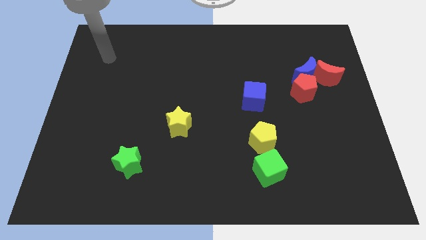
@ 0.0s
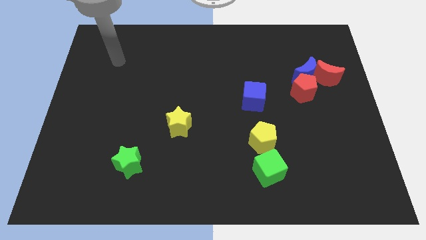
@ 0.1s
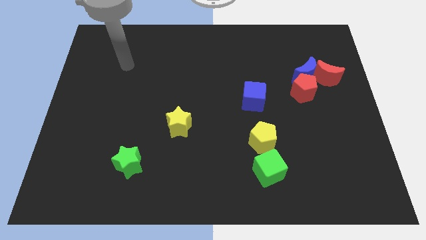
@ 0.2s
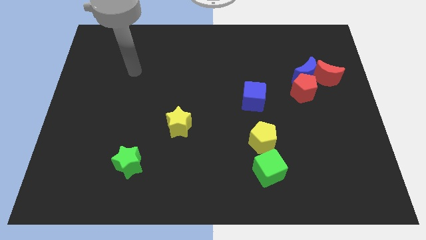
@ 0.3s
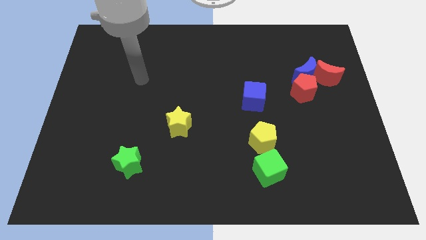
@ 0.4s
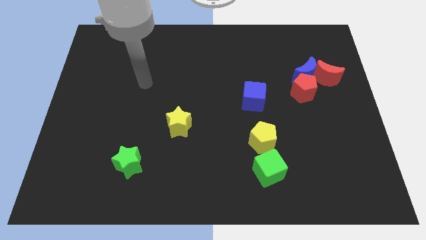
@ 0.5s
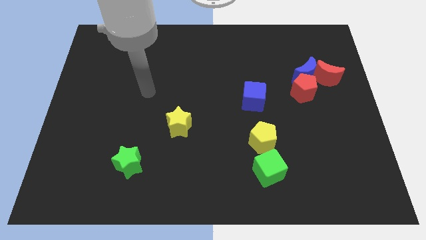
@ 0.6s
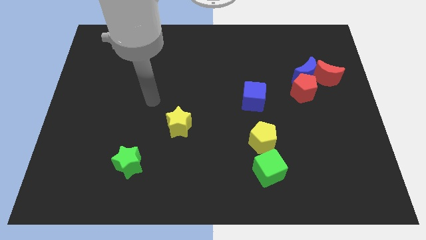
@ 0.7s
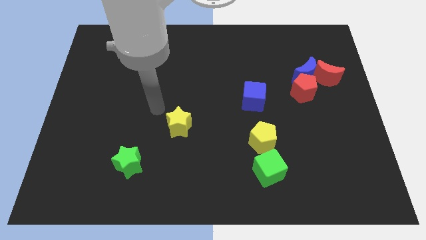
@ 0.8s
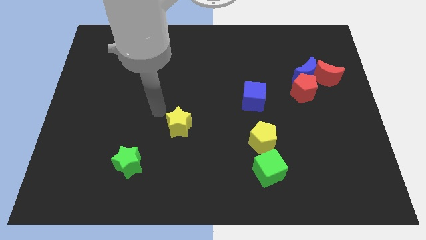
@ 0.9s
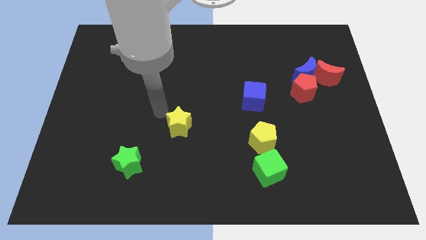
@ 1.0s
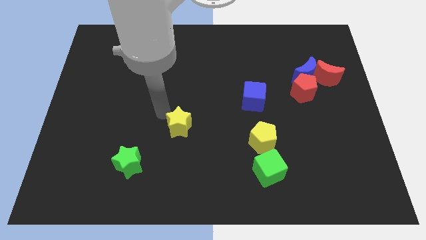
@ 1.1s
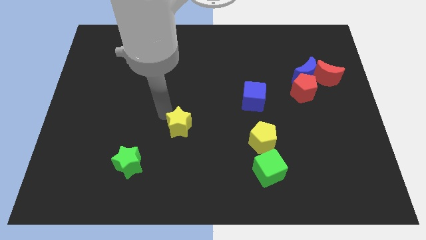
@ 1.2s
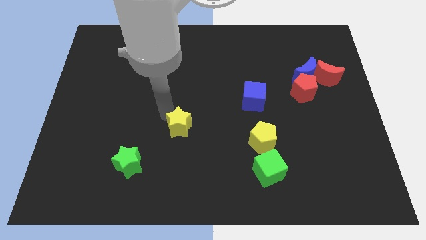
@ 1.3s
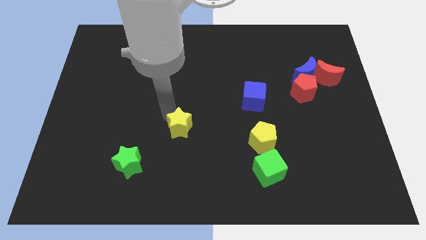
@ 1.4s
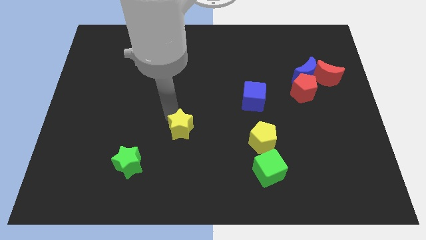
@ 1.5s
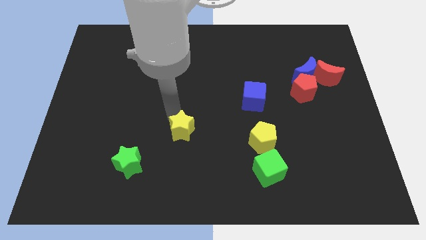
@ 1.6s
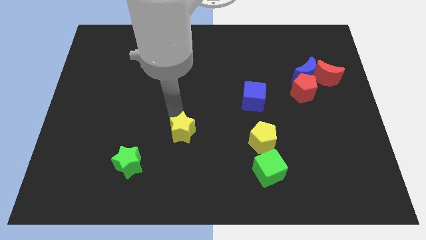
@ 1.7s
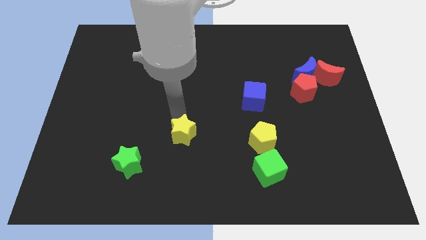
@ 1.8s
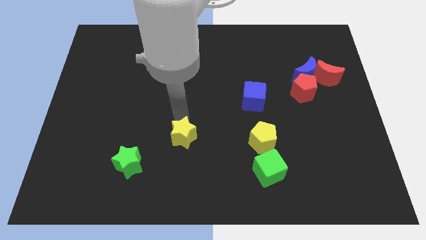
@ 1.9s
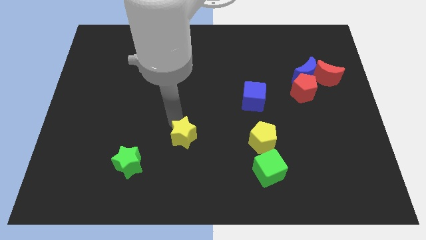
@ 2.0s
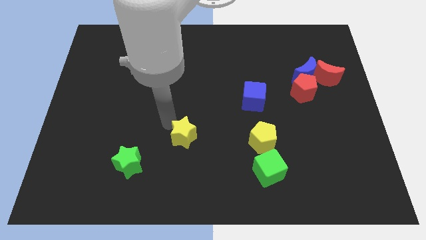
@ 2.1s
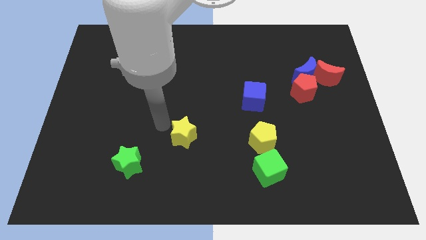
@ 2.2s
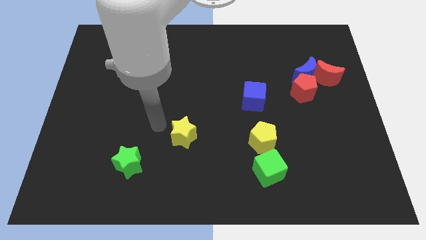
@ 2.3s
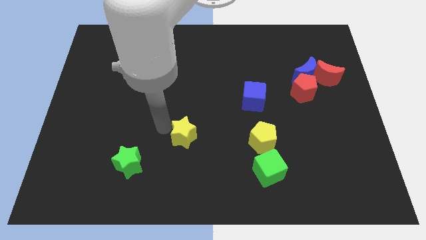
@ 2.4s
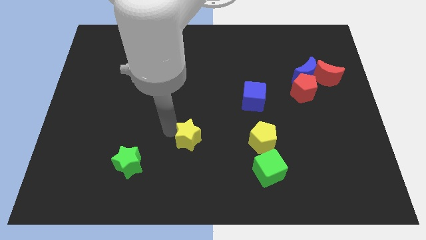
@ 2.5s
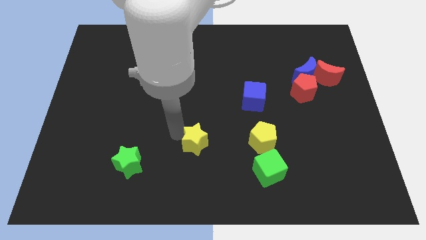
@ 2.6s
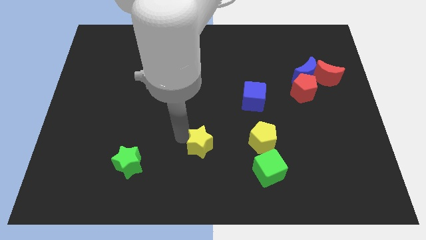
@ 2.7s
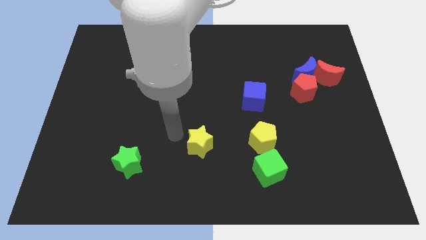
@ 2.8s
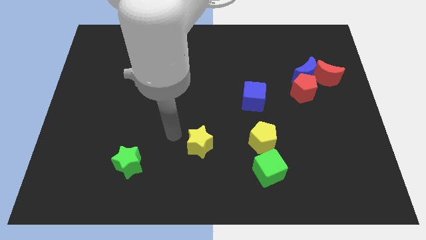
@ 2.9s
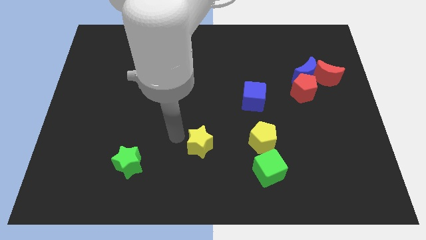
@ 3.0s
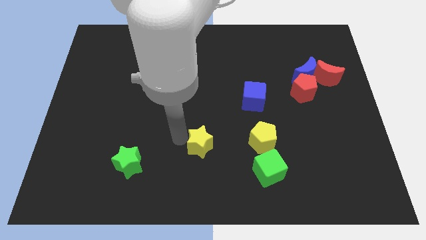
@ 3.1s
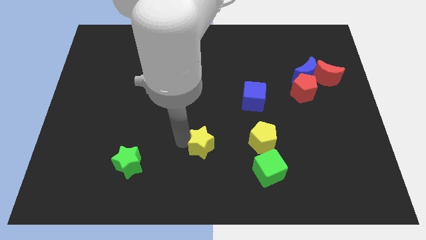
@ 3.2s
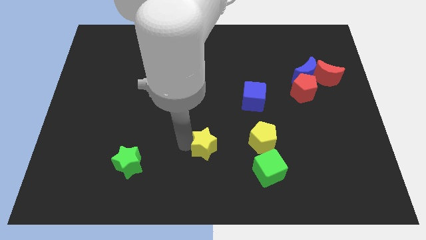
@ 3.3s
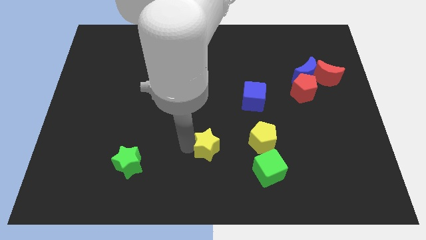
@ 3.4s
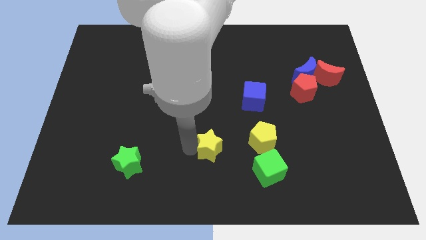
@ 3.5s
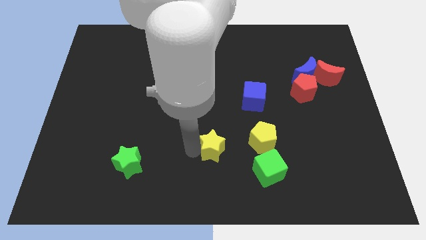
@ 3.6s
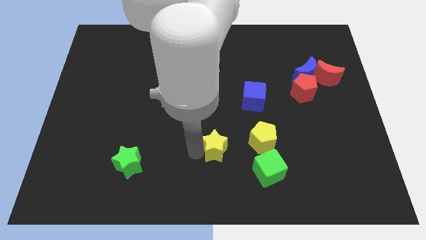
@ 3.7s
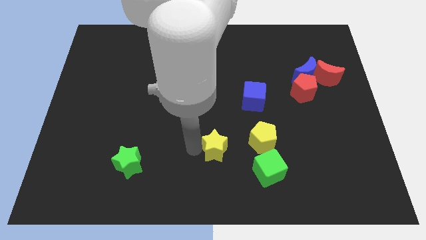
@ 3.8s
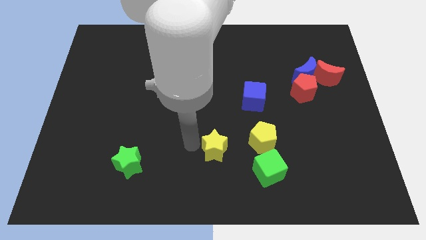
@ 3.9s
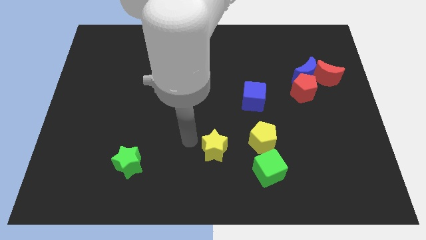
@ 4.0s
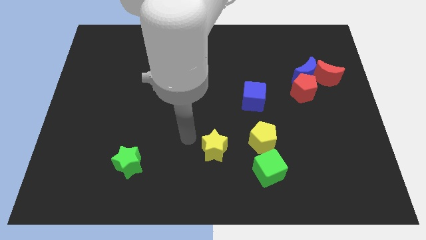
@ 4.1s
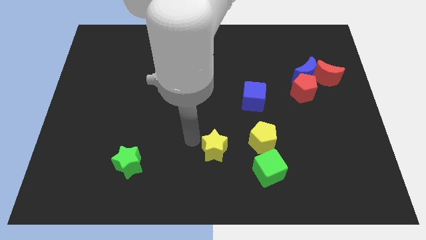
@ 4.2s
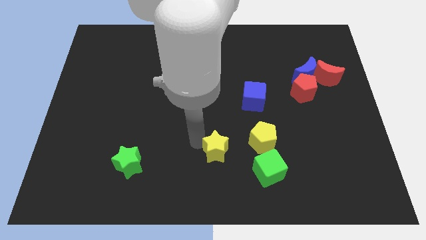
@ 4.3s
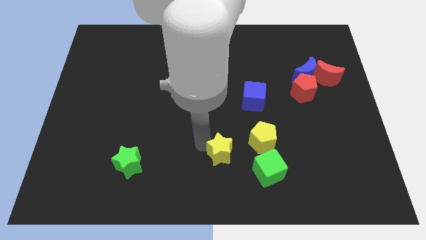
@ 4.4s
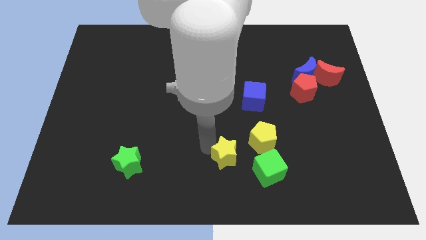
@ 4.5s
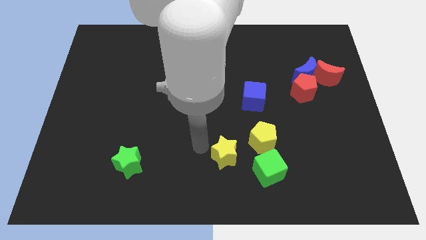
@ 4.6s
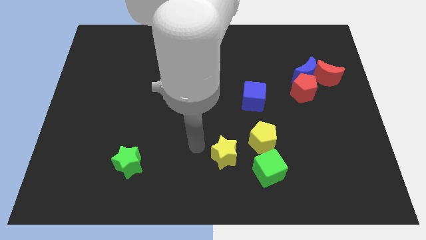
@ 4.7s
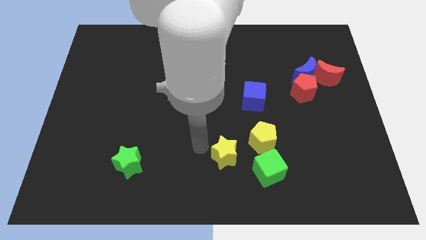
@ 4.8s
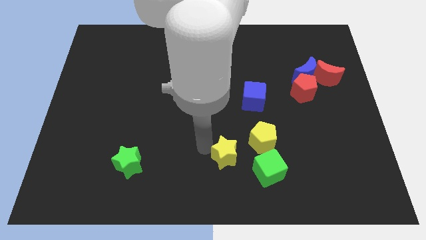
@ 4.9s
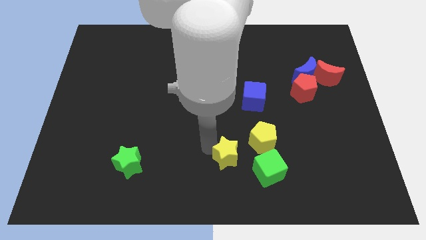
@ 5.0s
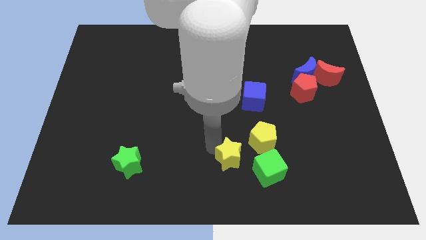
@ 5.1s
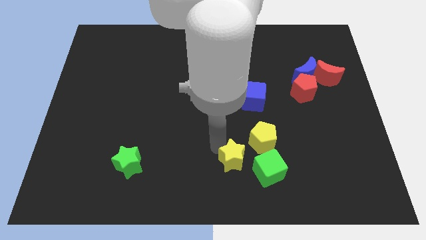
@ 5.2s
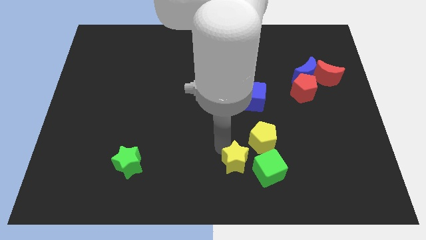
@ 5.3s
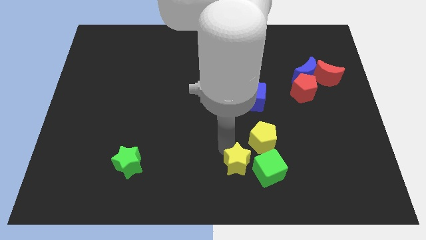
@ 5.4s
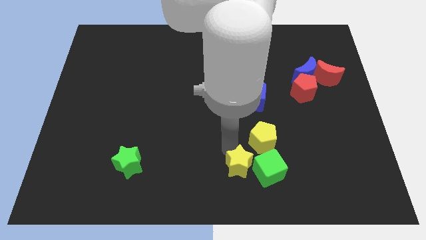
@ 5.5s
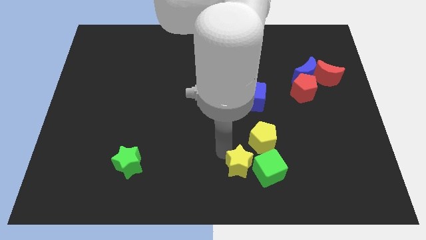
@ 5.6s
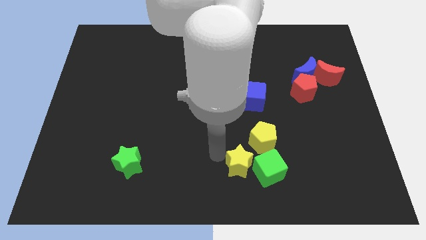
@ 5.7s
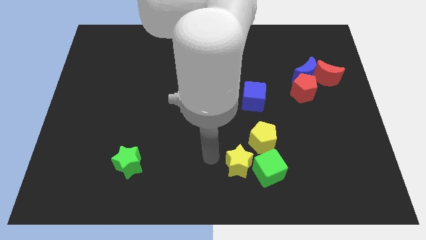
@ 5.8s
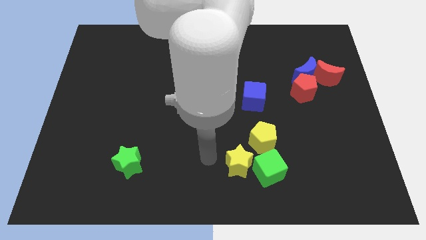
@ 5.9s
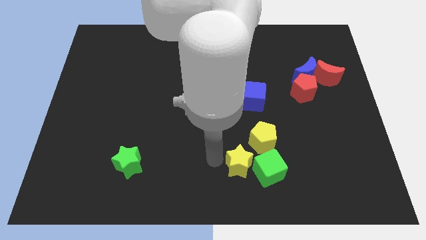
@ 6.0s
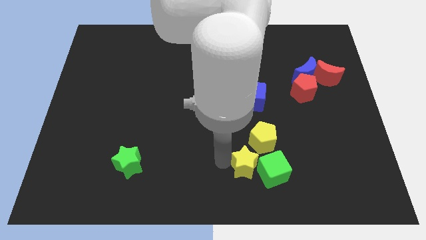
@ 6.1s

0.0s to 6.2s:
put the yellow star close to the green cube

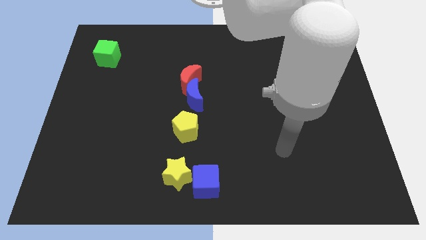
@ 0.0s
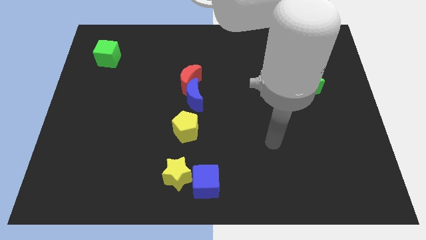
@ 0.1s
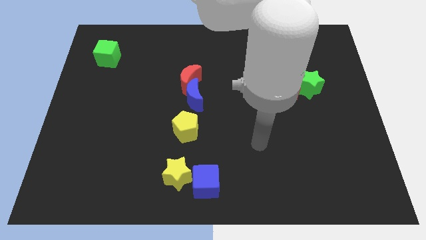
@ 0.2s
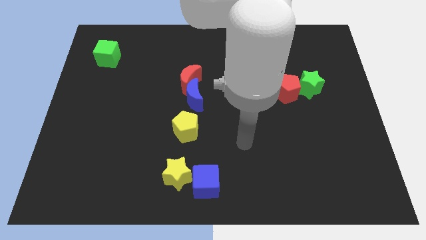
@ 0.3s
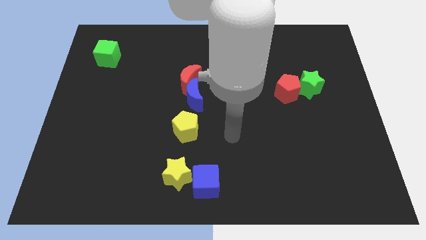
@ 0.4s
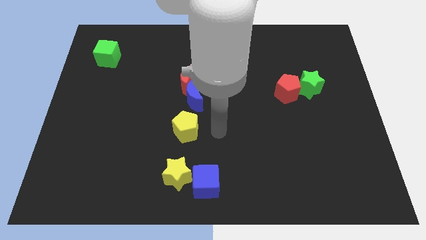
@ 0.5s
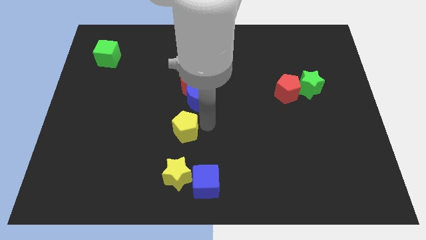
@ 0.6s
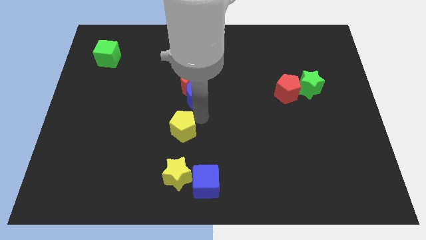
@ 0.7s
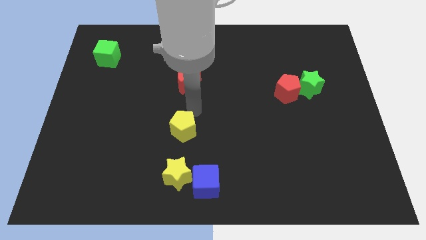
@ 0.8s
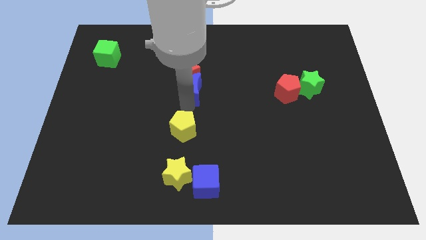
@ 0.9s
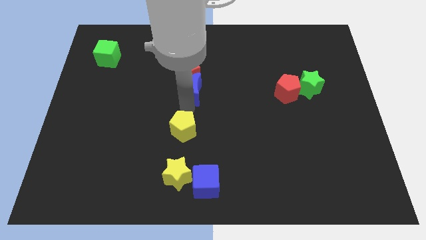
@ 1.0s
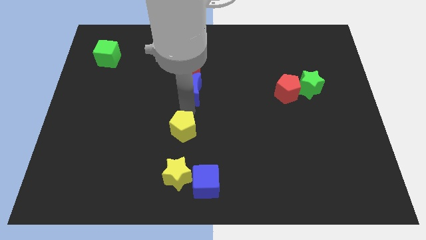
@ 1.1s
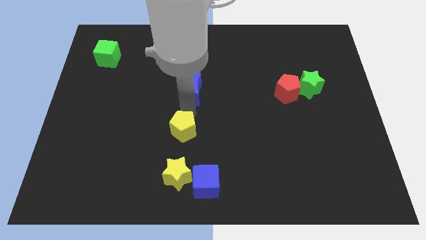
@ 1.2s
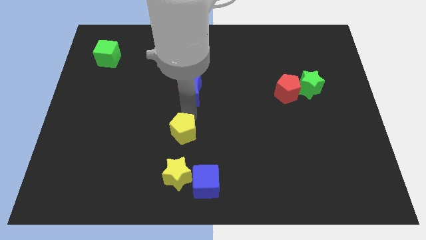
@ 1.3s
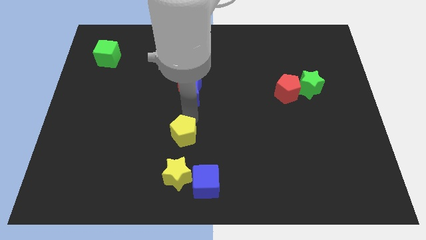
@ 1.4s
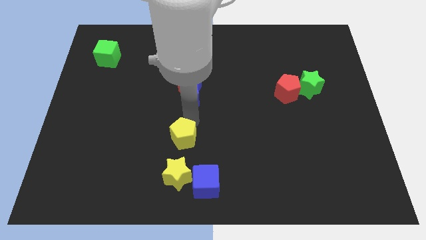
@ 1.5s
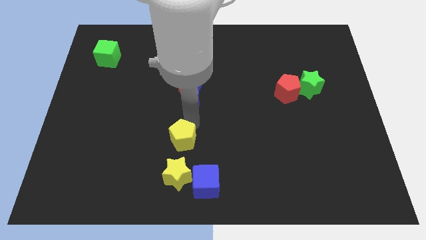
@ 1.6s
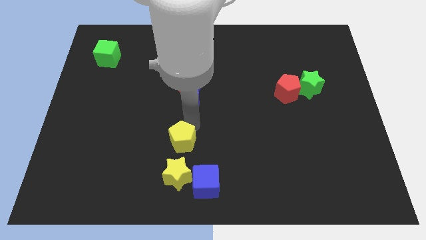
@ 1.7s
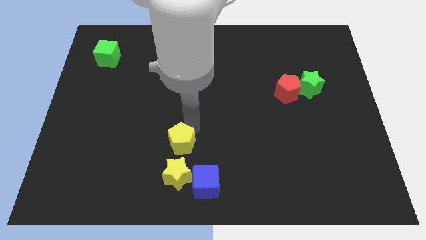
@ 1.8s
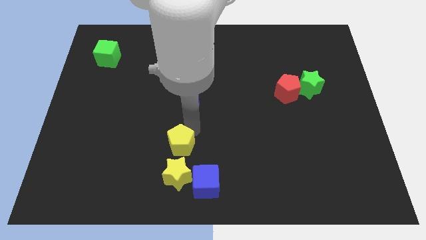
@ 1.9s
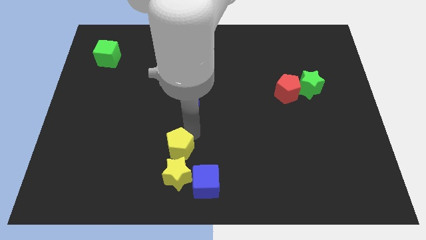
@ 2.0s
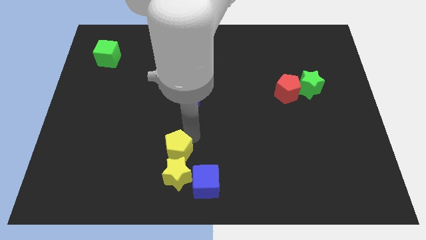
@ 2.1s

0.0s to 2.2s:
slide the yellow pentagon towards the yellow star
